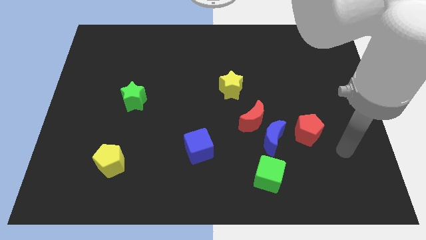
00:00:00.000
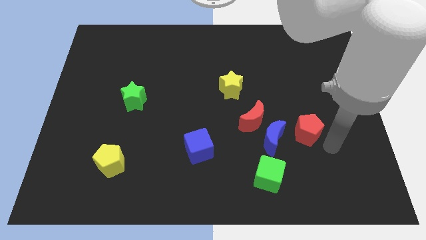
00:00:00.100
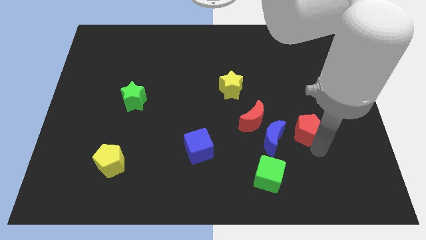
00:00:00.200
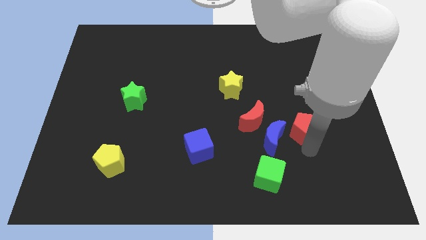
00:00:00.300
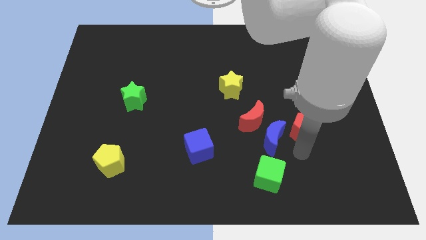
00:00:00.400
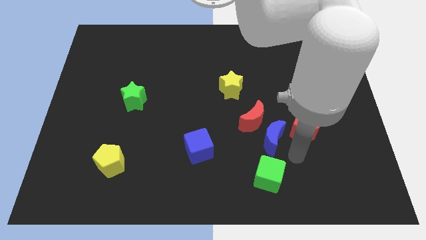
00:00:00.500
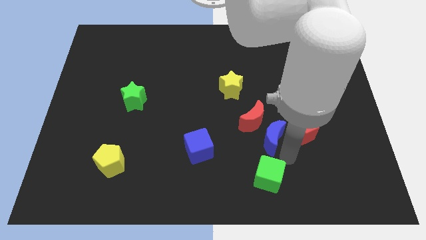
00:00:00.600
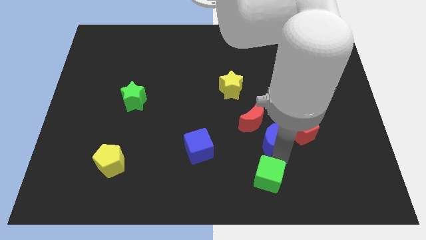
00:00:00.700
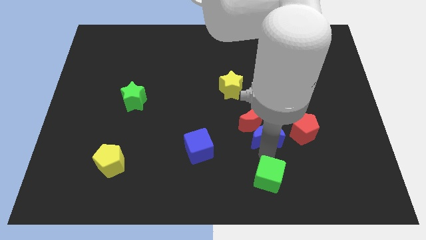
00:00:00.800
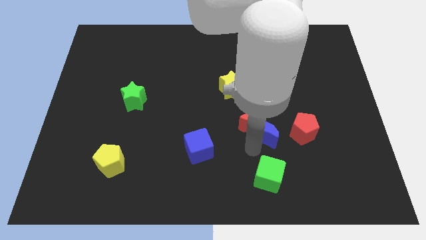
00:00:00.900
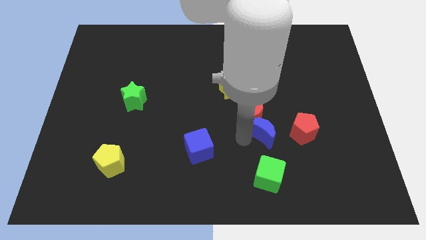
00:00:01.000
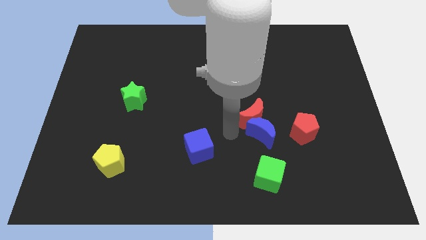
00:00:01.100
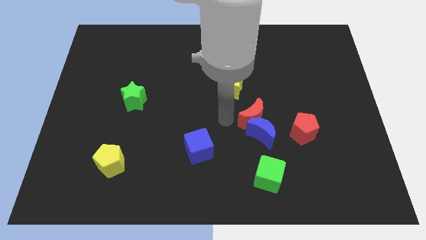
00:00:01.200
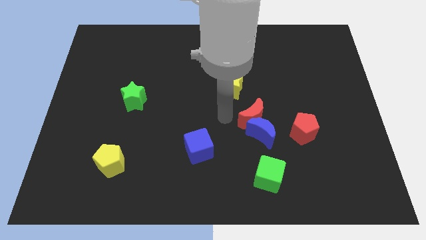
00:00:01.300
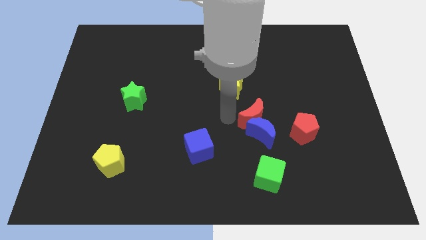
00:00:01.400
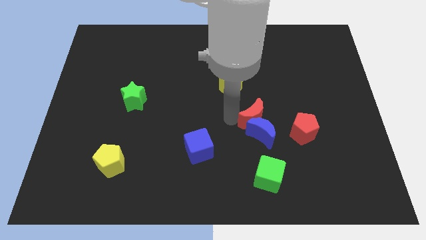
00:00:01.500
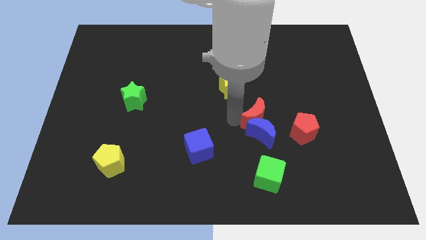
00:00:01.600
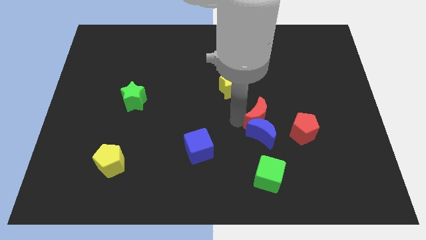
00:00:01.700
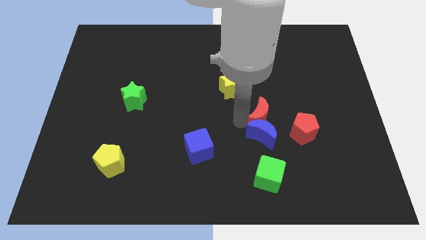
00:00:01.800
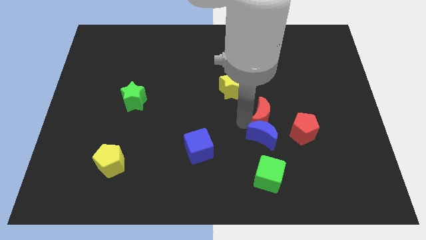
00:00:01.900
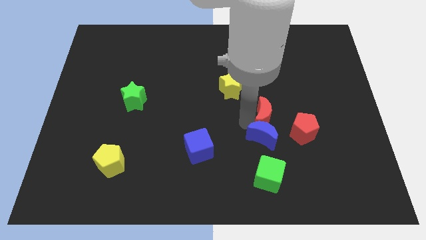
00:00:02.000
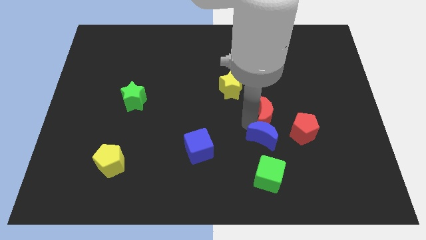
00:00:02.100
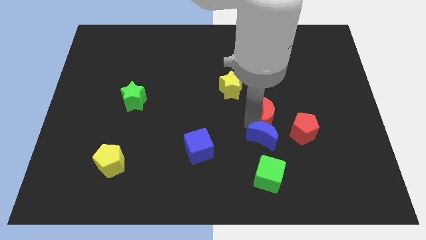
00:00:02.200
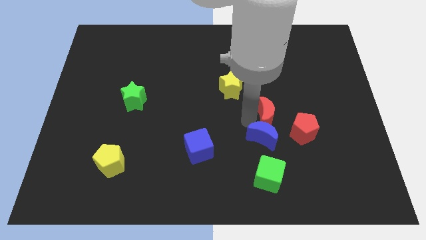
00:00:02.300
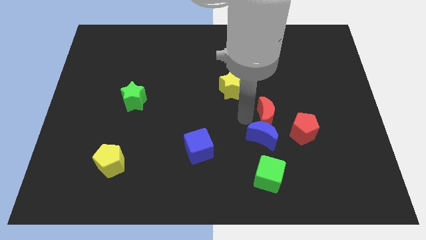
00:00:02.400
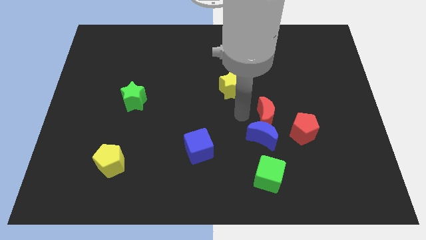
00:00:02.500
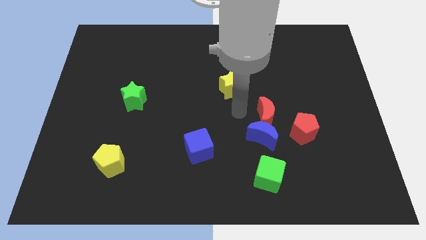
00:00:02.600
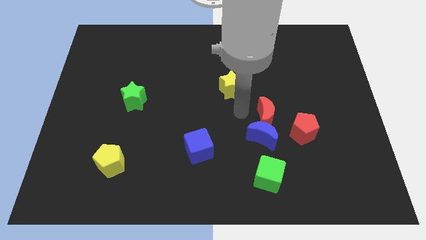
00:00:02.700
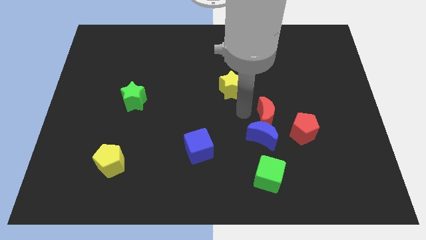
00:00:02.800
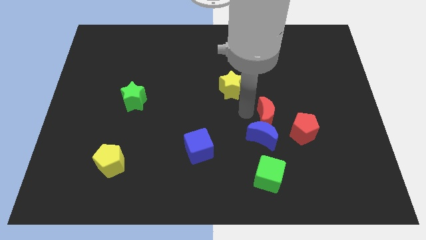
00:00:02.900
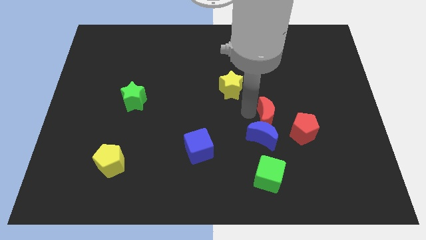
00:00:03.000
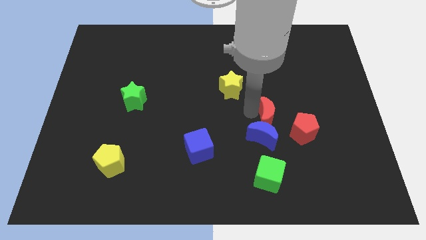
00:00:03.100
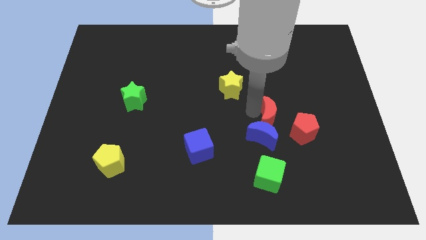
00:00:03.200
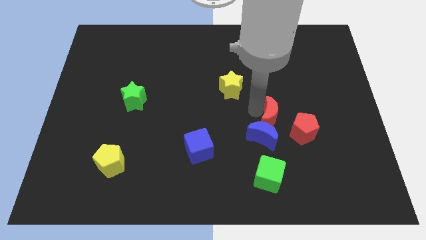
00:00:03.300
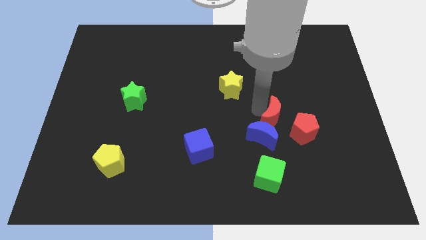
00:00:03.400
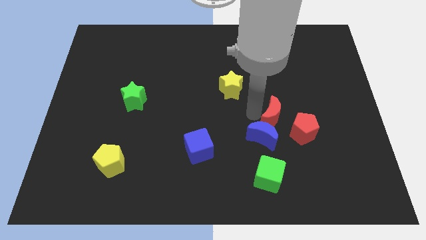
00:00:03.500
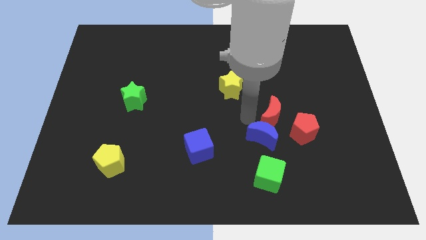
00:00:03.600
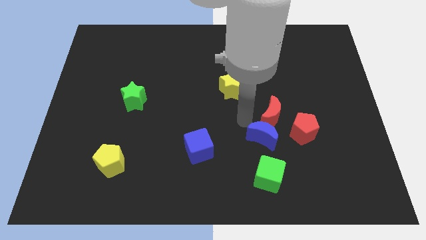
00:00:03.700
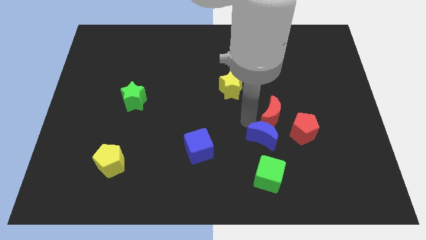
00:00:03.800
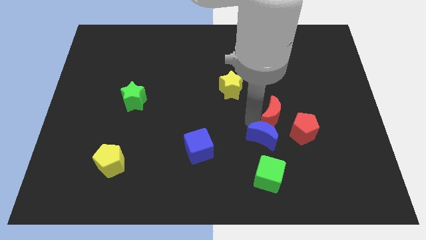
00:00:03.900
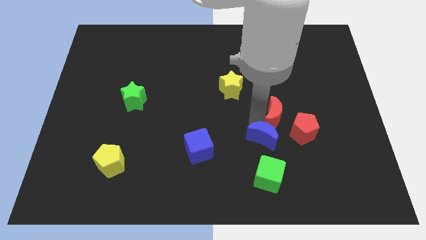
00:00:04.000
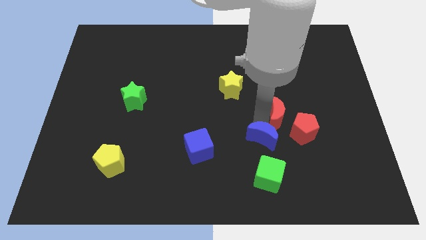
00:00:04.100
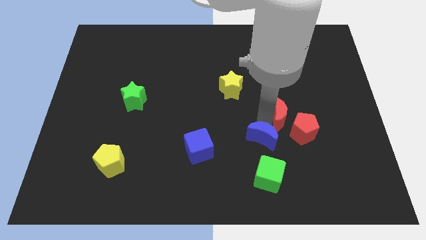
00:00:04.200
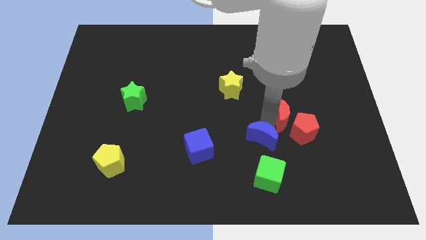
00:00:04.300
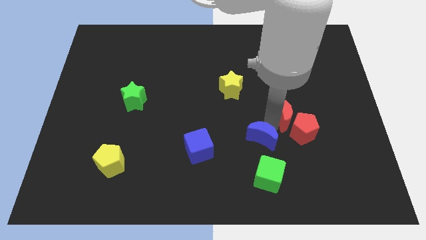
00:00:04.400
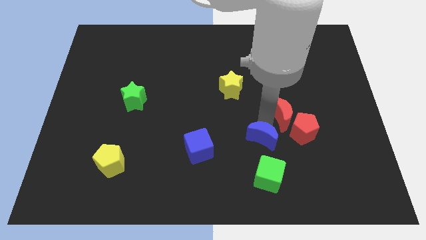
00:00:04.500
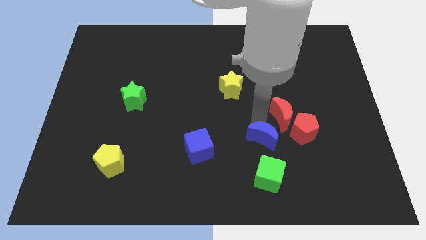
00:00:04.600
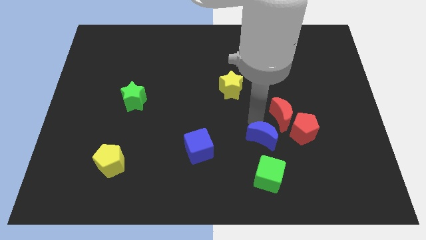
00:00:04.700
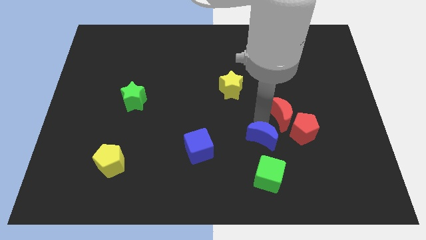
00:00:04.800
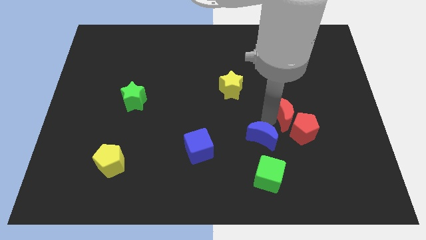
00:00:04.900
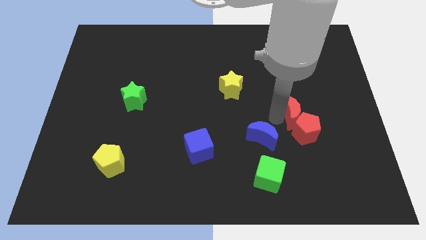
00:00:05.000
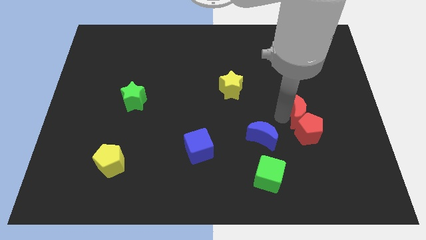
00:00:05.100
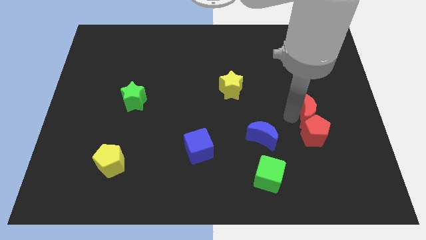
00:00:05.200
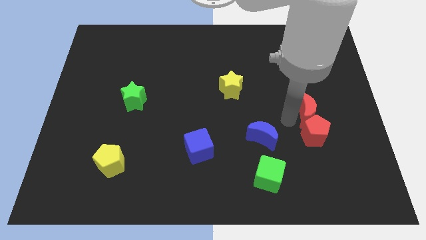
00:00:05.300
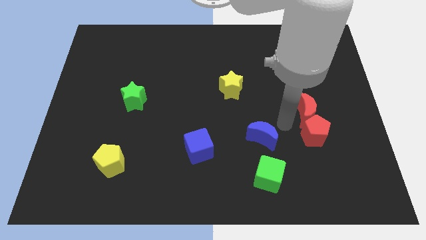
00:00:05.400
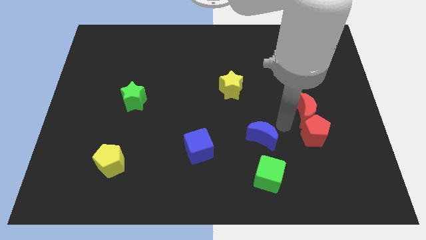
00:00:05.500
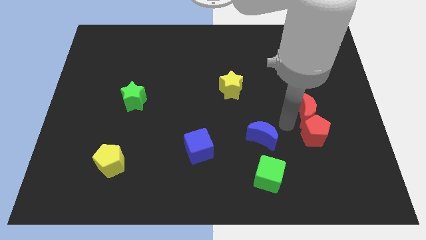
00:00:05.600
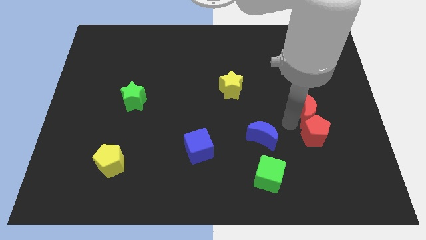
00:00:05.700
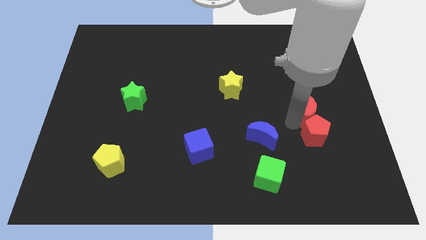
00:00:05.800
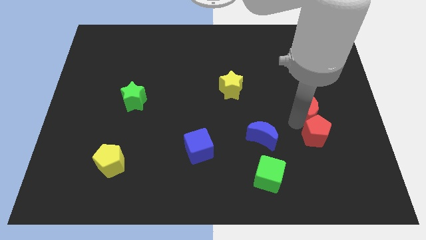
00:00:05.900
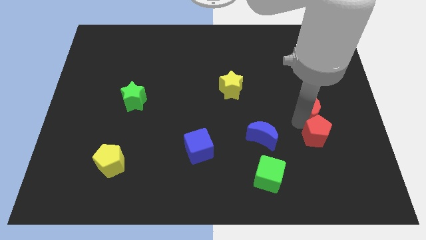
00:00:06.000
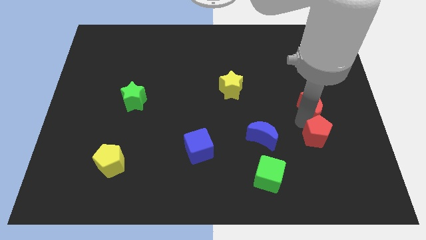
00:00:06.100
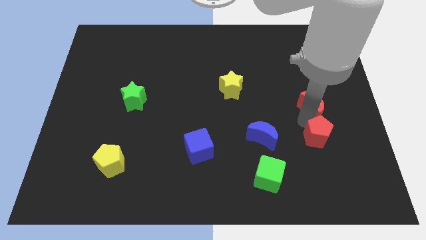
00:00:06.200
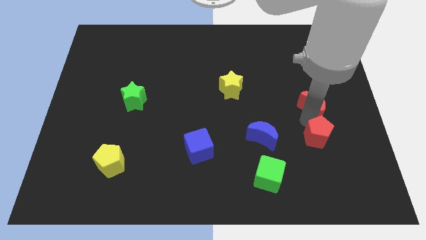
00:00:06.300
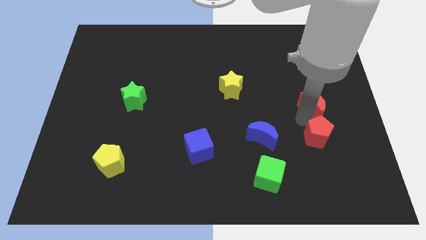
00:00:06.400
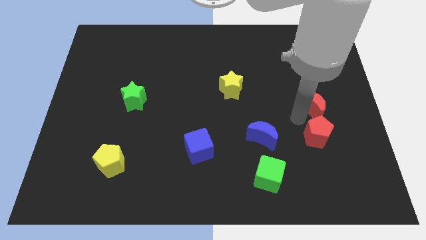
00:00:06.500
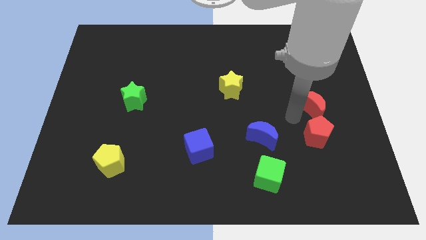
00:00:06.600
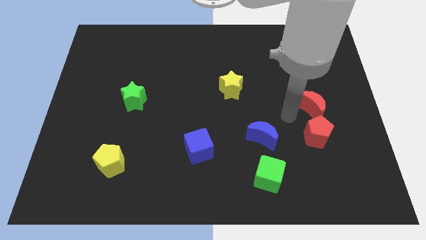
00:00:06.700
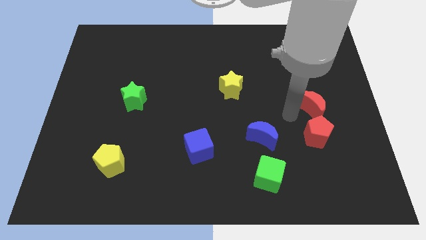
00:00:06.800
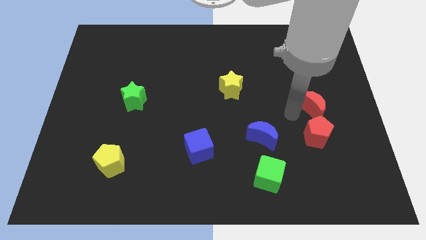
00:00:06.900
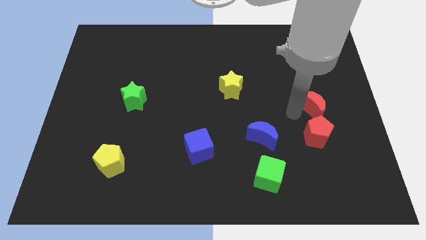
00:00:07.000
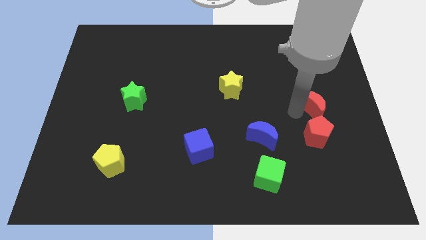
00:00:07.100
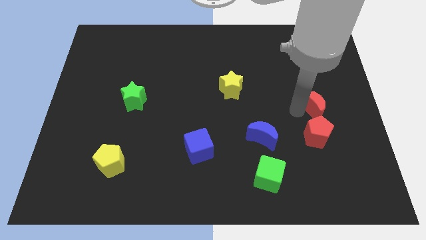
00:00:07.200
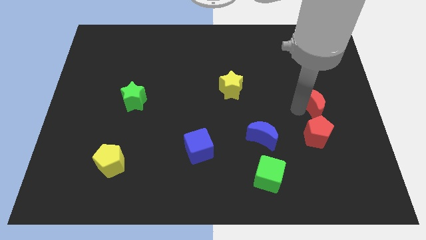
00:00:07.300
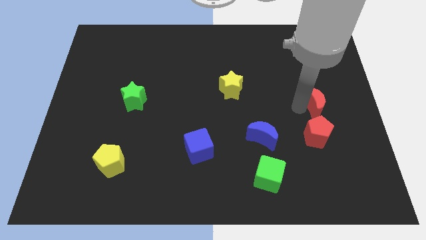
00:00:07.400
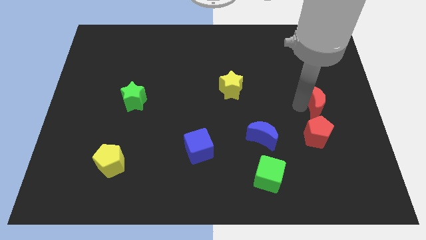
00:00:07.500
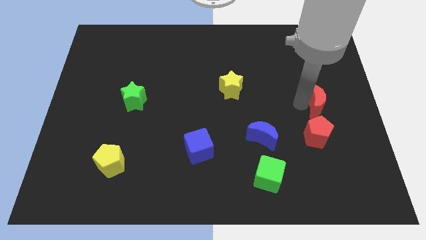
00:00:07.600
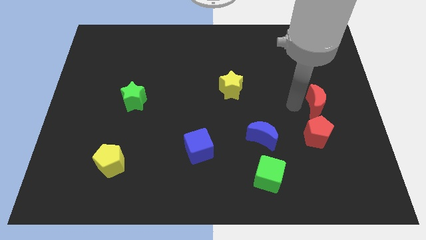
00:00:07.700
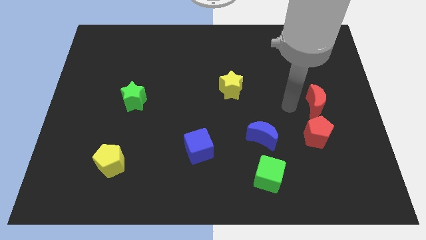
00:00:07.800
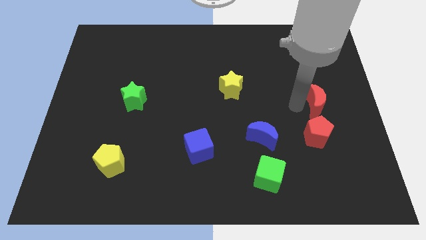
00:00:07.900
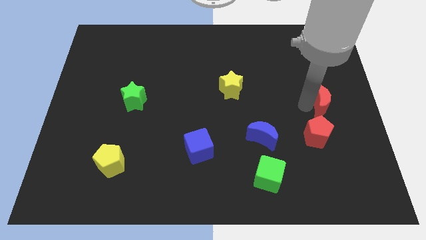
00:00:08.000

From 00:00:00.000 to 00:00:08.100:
put the red moon to the right side
